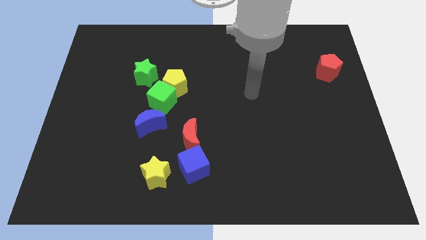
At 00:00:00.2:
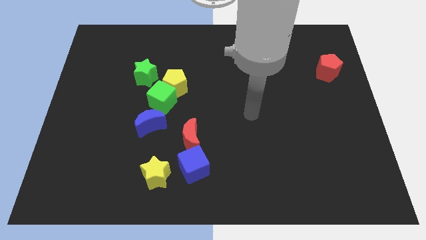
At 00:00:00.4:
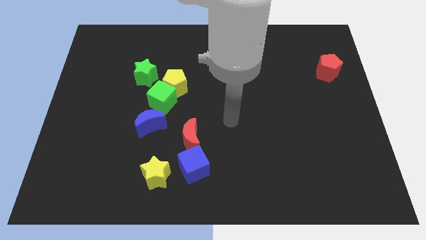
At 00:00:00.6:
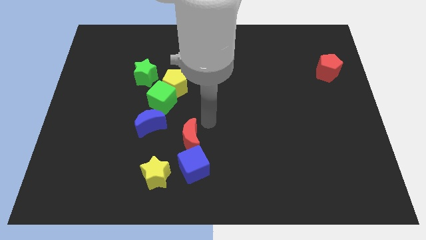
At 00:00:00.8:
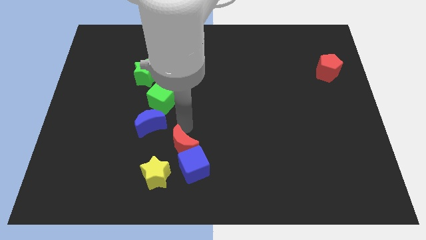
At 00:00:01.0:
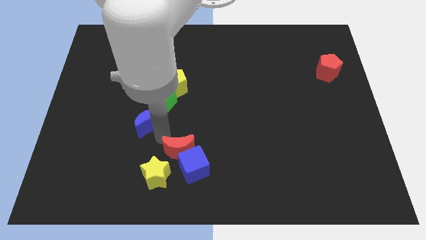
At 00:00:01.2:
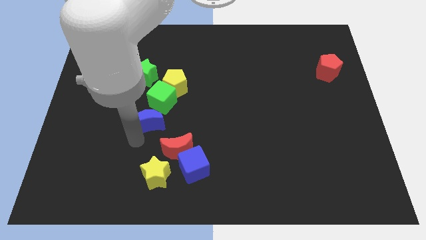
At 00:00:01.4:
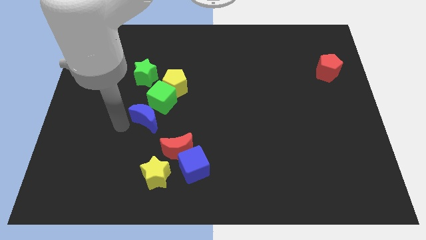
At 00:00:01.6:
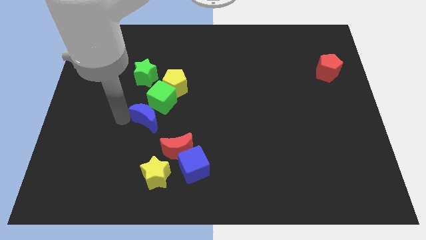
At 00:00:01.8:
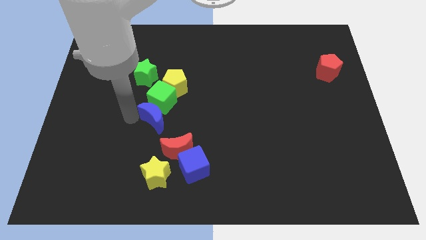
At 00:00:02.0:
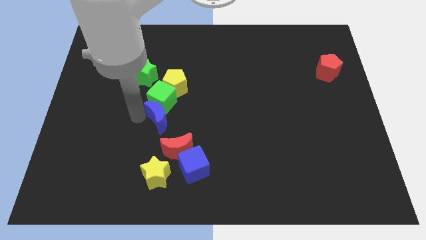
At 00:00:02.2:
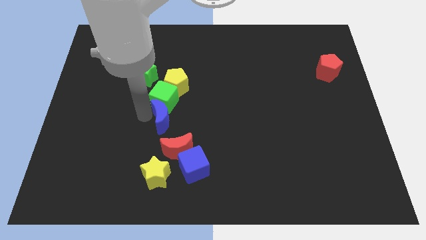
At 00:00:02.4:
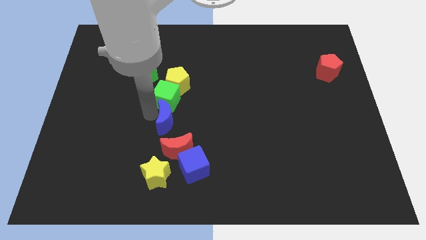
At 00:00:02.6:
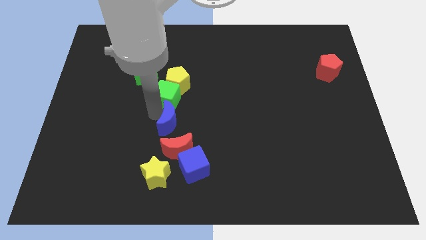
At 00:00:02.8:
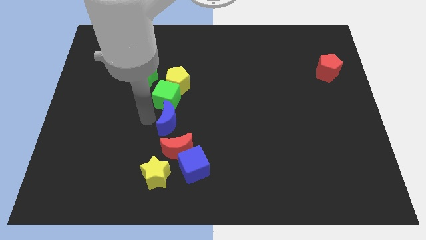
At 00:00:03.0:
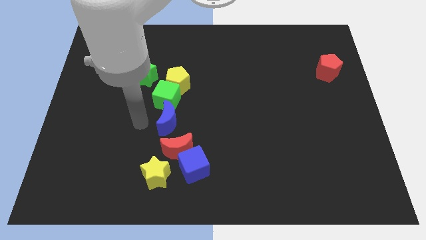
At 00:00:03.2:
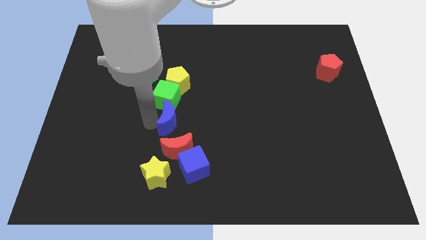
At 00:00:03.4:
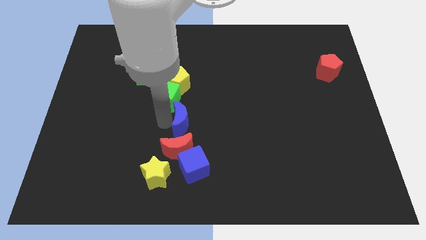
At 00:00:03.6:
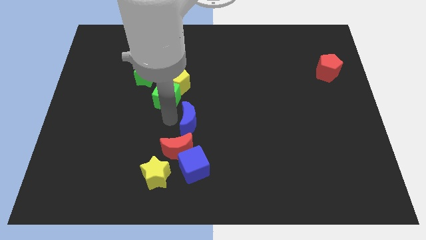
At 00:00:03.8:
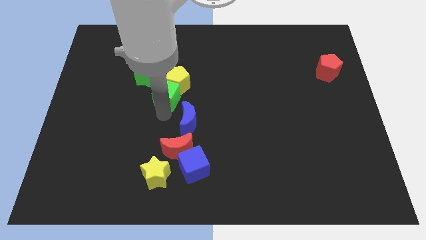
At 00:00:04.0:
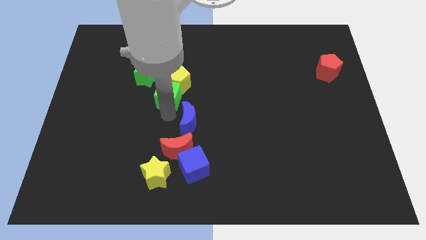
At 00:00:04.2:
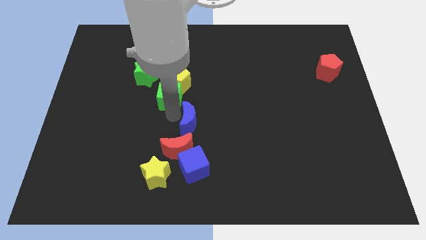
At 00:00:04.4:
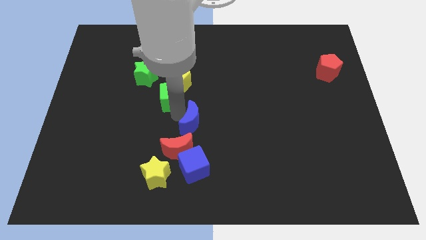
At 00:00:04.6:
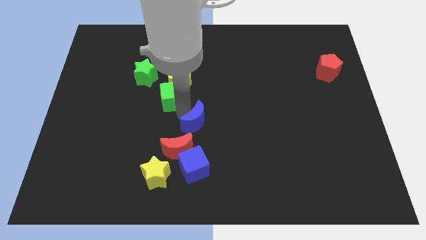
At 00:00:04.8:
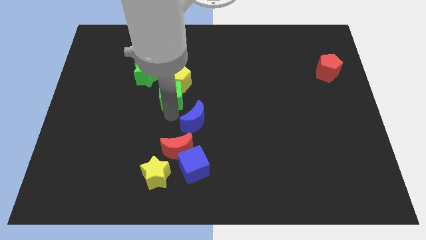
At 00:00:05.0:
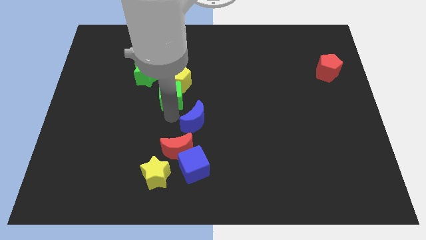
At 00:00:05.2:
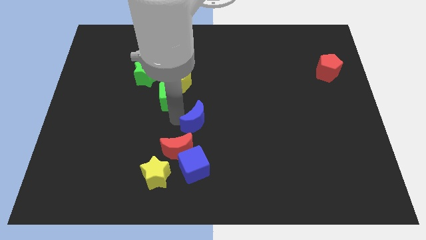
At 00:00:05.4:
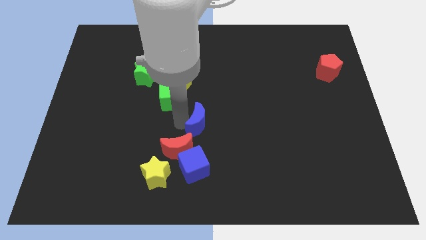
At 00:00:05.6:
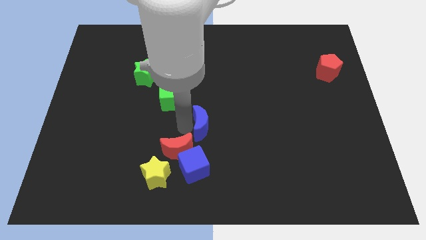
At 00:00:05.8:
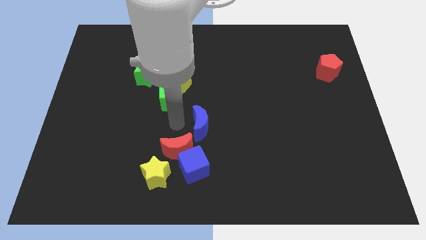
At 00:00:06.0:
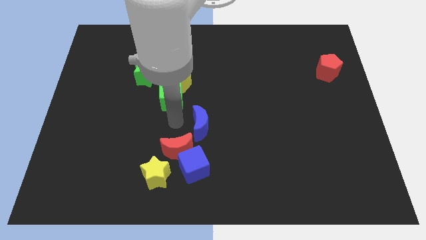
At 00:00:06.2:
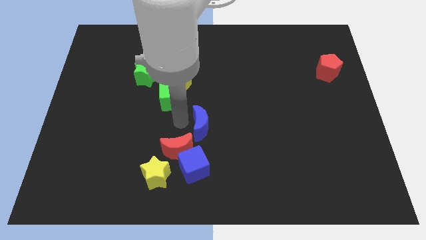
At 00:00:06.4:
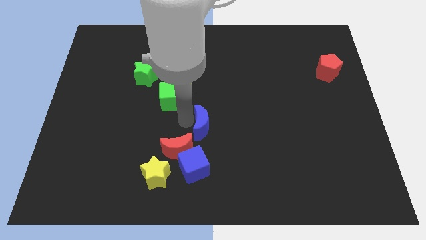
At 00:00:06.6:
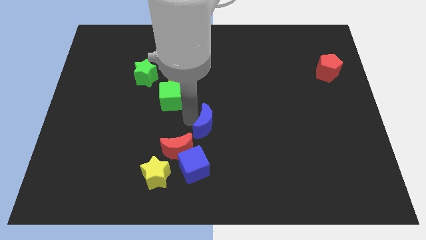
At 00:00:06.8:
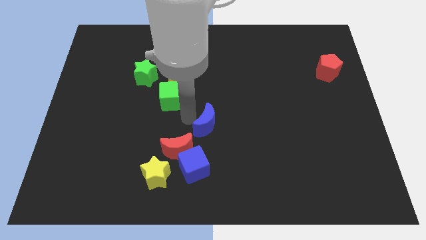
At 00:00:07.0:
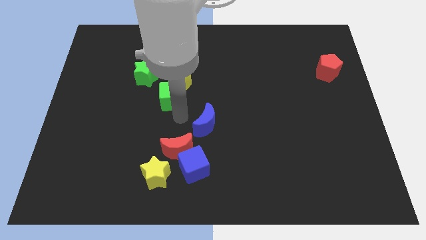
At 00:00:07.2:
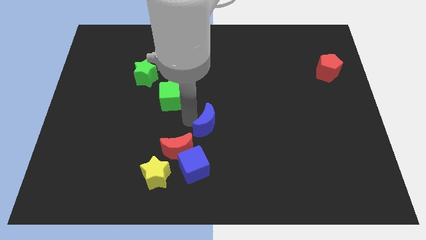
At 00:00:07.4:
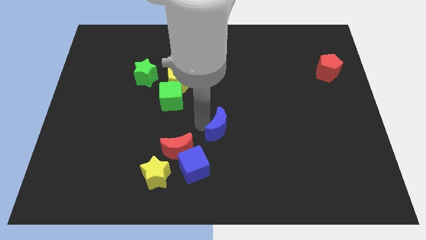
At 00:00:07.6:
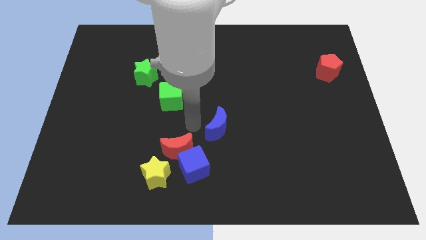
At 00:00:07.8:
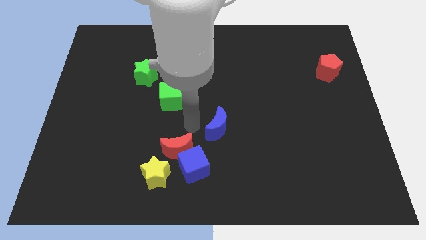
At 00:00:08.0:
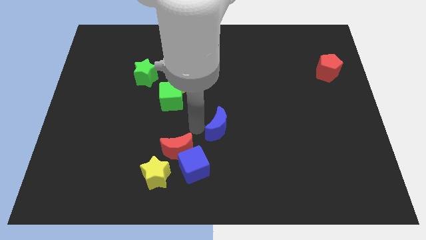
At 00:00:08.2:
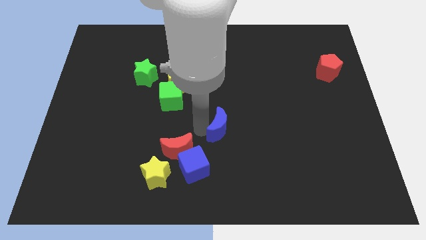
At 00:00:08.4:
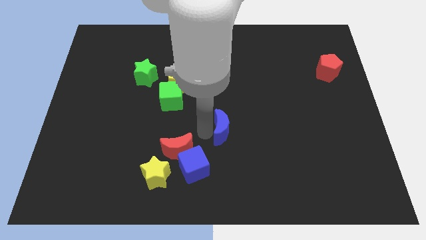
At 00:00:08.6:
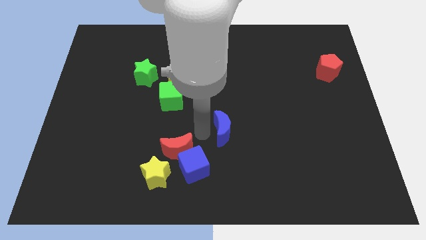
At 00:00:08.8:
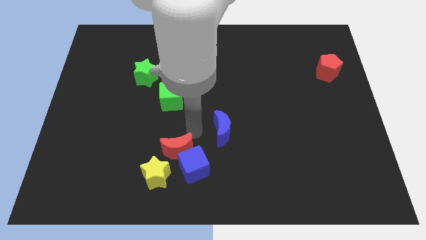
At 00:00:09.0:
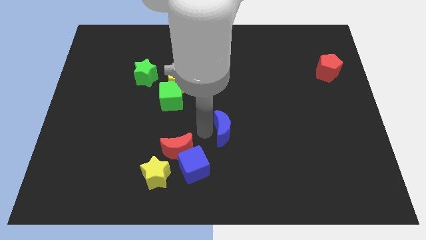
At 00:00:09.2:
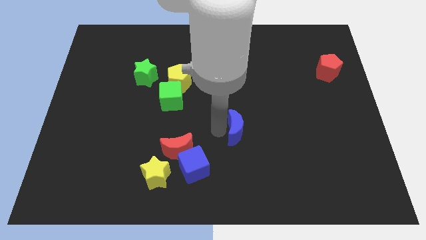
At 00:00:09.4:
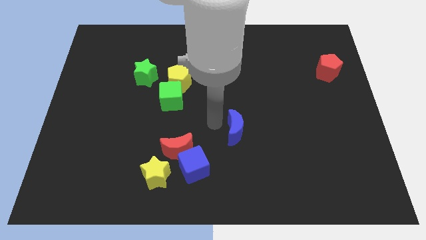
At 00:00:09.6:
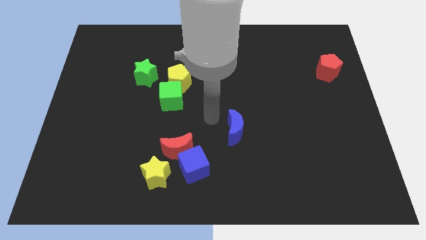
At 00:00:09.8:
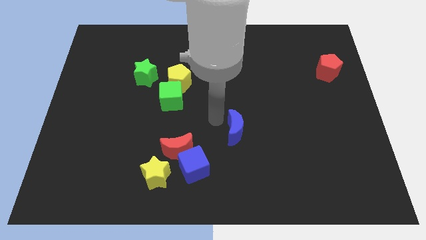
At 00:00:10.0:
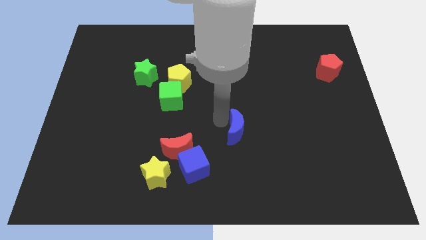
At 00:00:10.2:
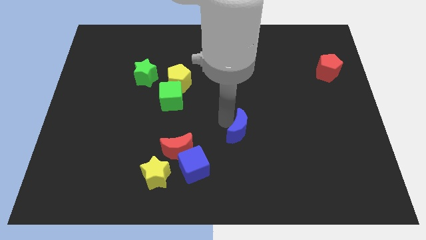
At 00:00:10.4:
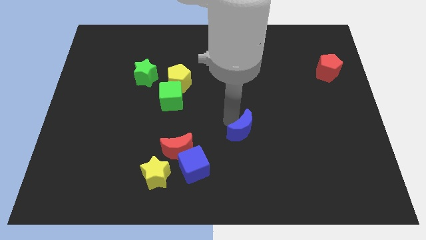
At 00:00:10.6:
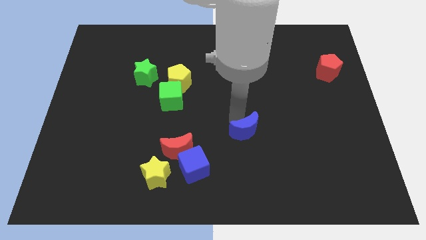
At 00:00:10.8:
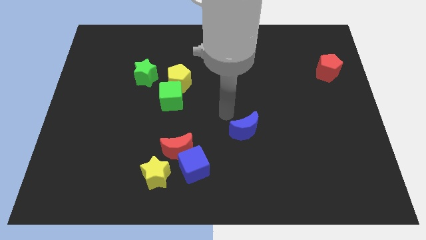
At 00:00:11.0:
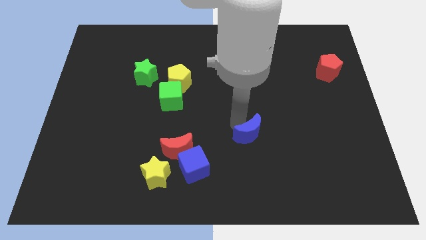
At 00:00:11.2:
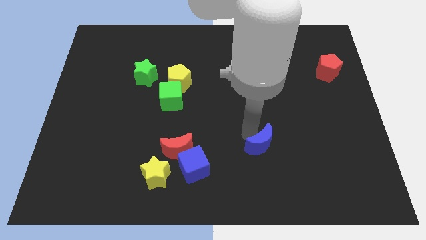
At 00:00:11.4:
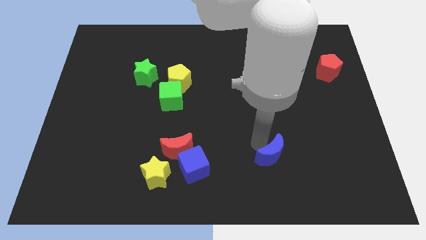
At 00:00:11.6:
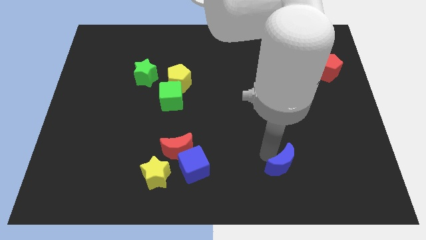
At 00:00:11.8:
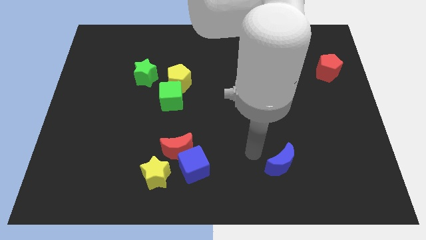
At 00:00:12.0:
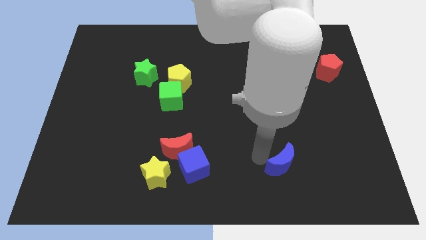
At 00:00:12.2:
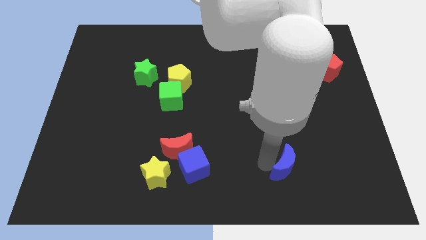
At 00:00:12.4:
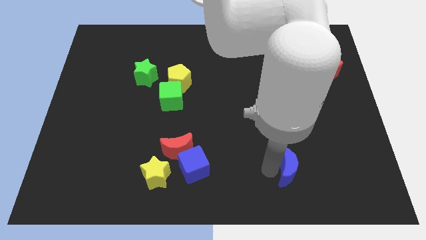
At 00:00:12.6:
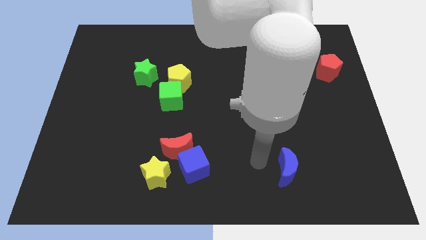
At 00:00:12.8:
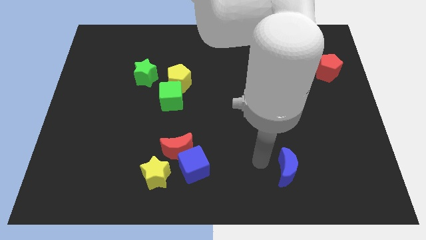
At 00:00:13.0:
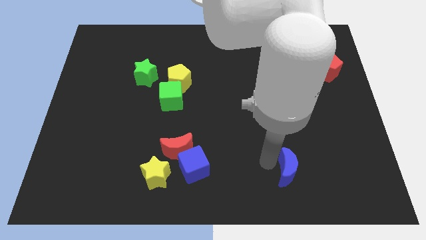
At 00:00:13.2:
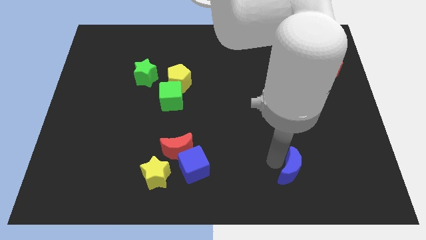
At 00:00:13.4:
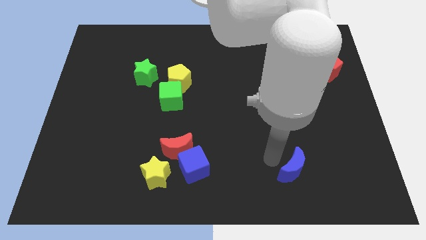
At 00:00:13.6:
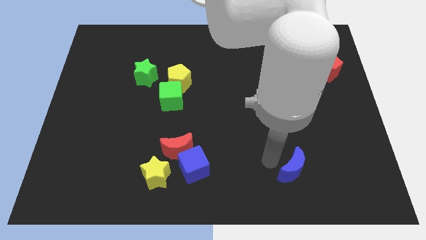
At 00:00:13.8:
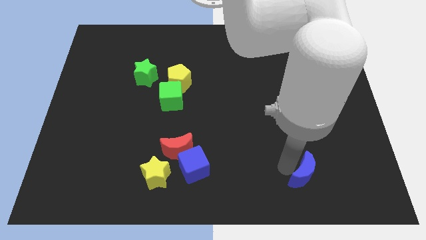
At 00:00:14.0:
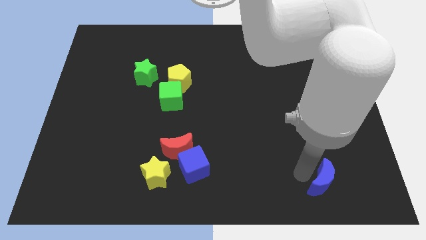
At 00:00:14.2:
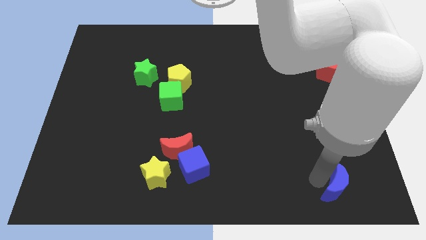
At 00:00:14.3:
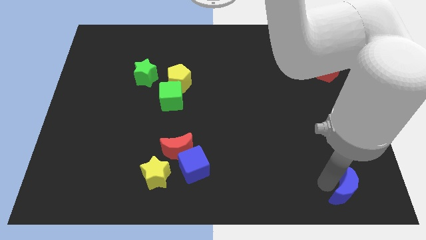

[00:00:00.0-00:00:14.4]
move the blue moon to the bottom right of the board
